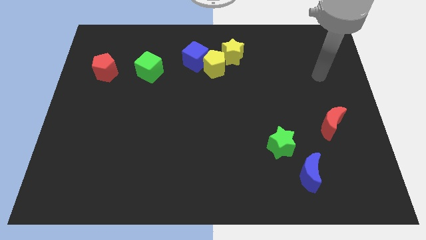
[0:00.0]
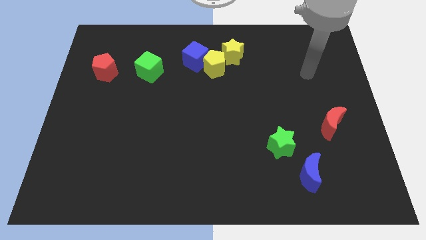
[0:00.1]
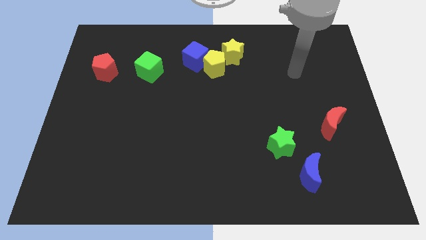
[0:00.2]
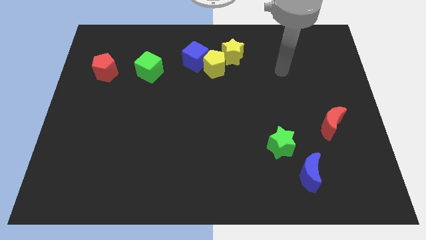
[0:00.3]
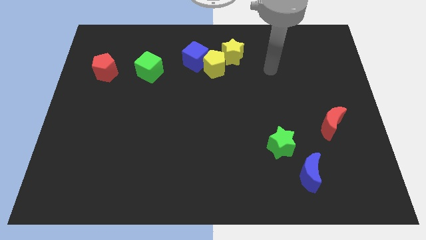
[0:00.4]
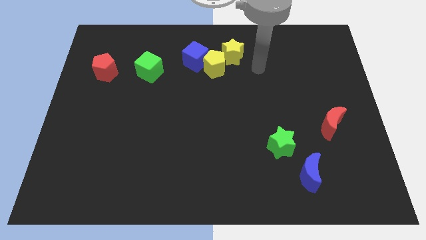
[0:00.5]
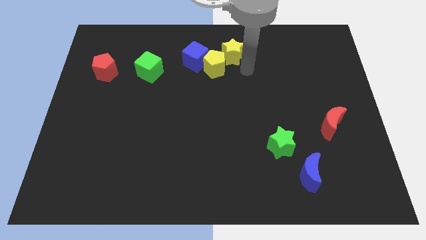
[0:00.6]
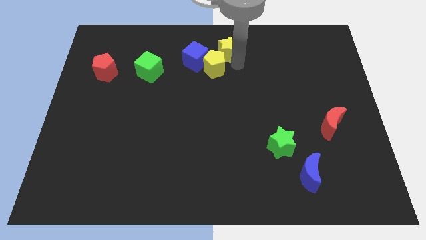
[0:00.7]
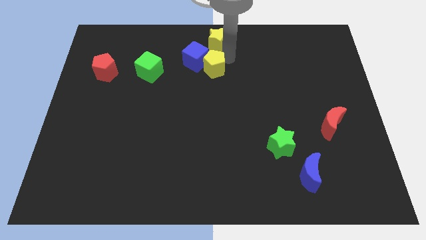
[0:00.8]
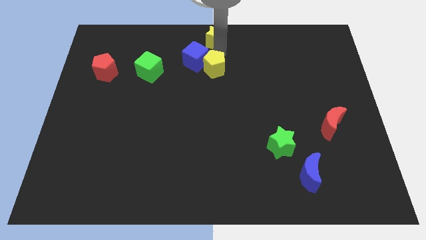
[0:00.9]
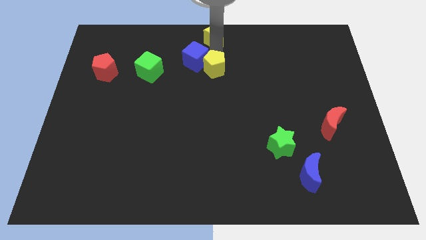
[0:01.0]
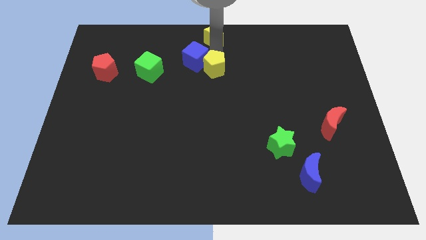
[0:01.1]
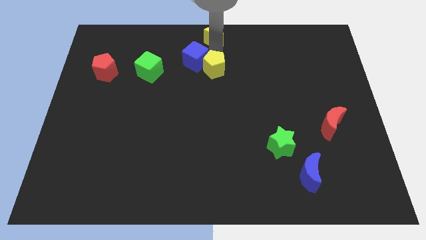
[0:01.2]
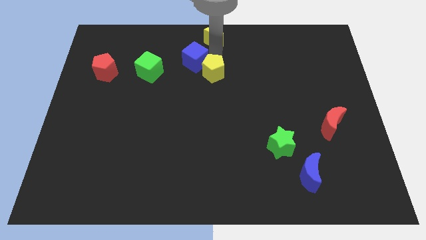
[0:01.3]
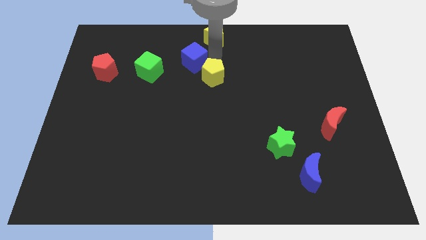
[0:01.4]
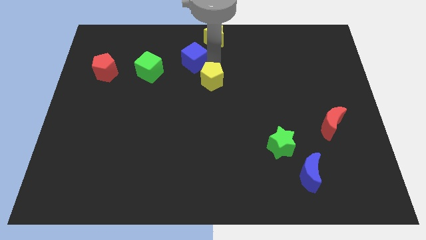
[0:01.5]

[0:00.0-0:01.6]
move the yellow pentagon away from the blue cube and yellow star

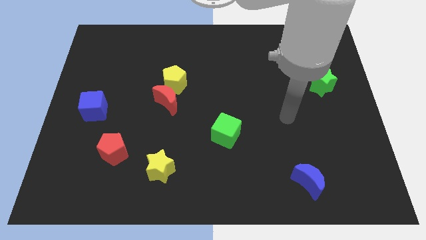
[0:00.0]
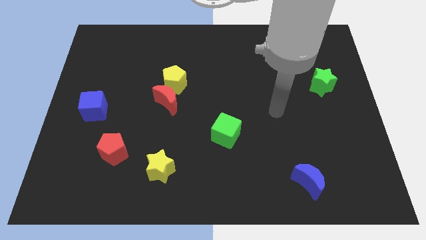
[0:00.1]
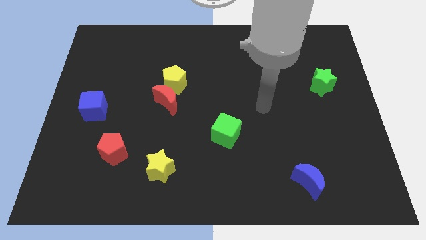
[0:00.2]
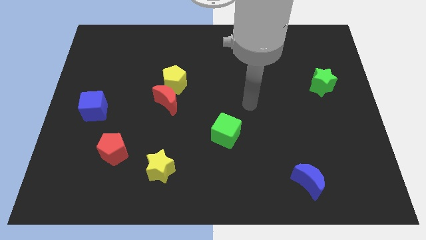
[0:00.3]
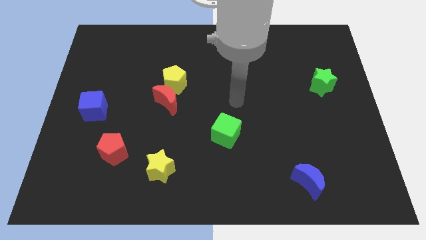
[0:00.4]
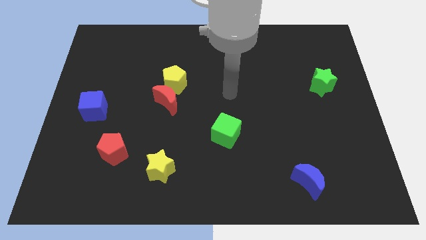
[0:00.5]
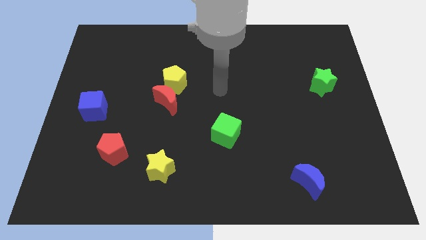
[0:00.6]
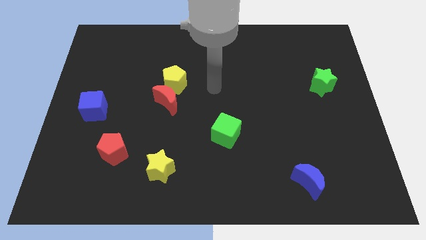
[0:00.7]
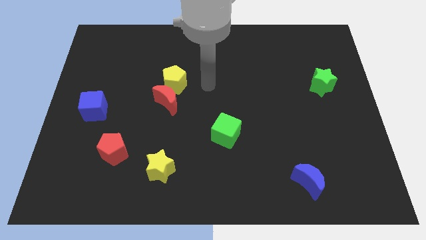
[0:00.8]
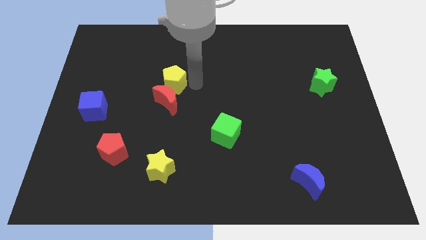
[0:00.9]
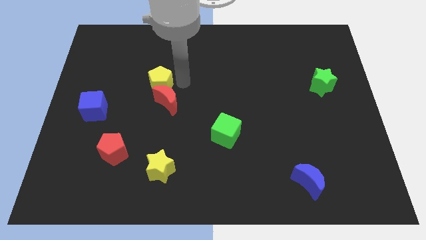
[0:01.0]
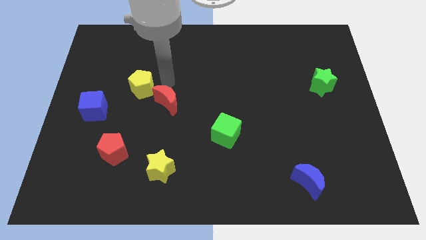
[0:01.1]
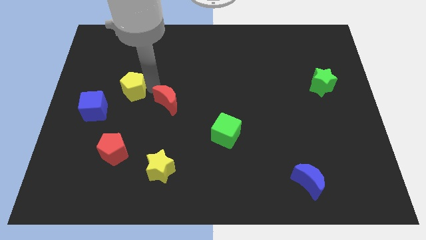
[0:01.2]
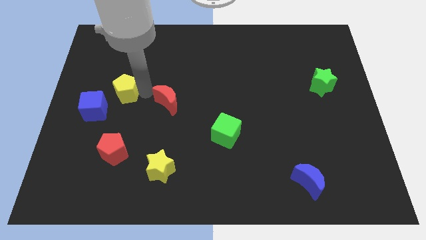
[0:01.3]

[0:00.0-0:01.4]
pull the red moon apart from the yellow pentagon

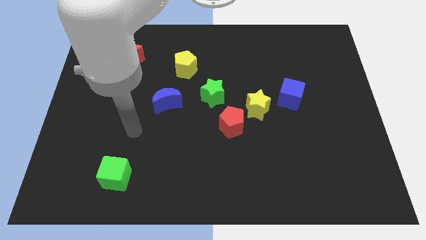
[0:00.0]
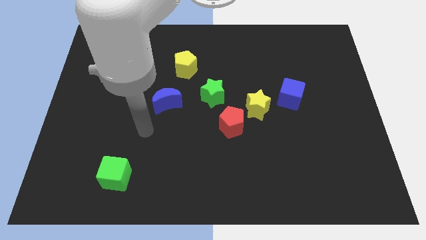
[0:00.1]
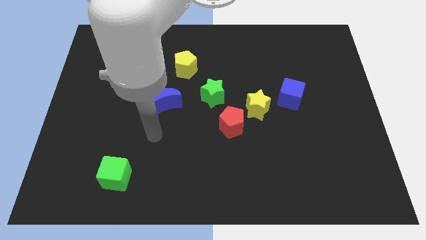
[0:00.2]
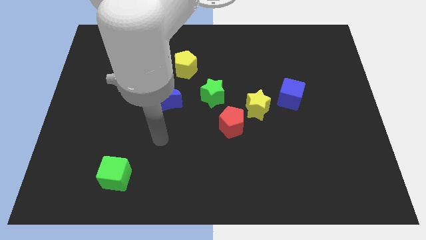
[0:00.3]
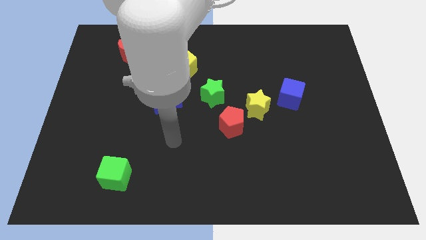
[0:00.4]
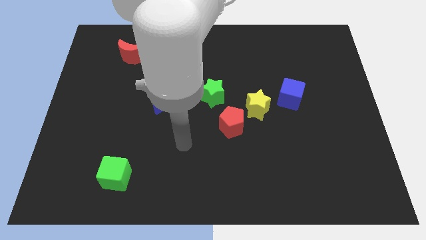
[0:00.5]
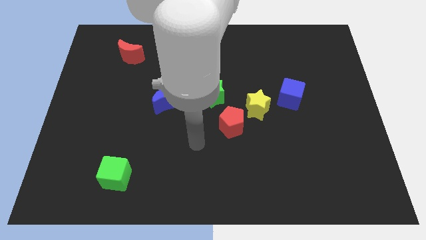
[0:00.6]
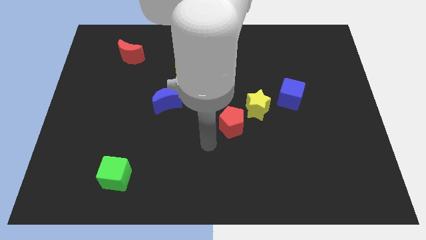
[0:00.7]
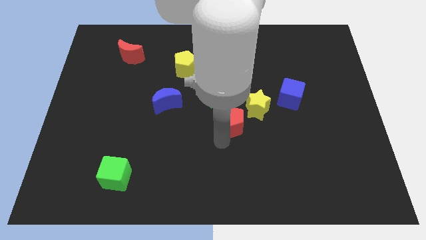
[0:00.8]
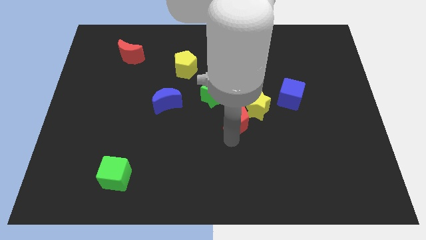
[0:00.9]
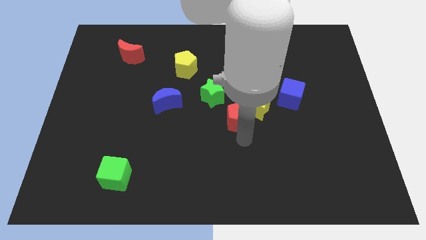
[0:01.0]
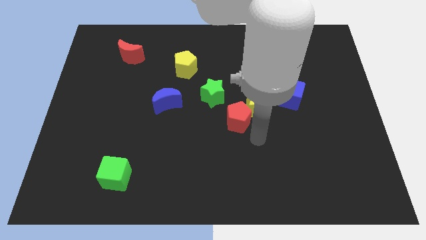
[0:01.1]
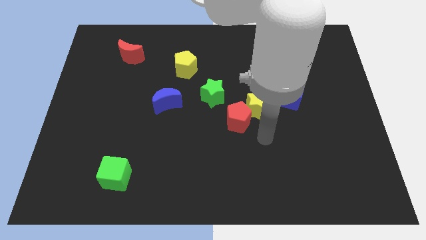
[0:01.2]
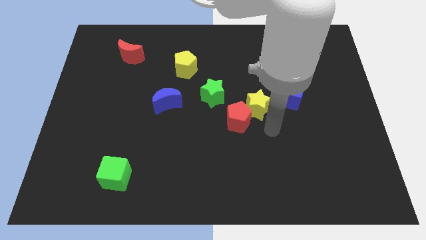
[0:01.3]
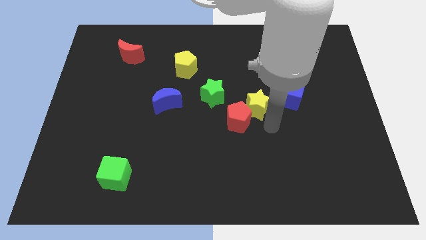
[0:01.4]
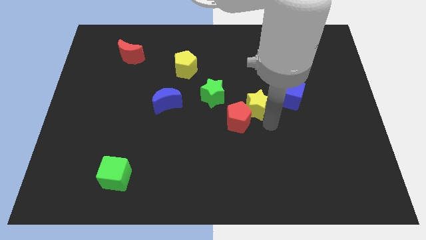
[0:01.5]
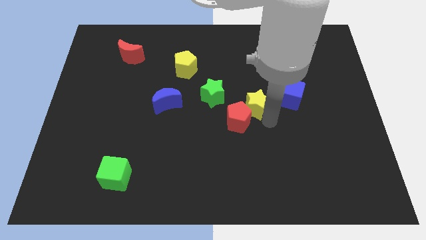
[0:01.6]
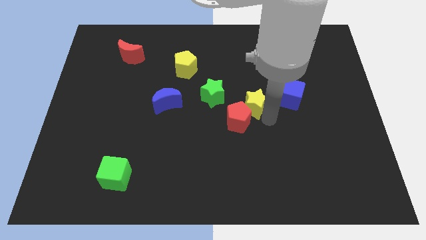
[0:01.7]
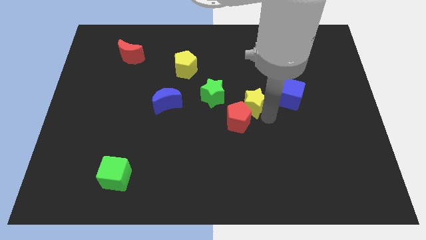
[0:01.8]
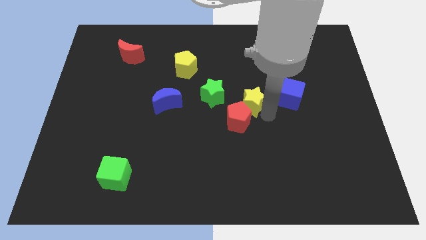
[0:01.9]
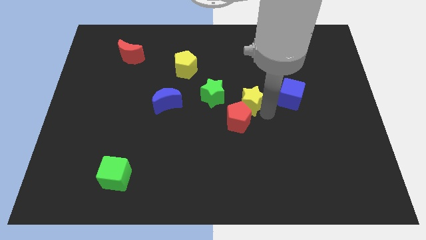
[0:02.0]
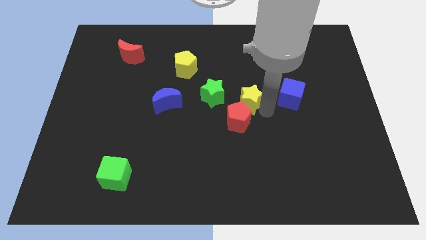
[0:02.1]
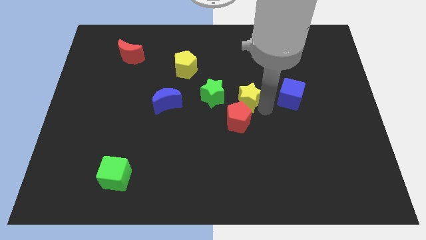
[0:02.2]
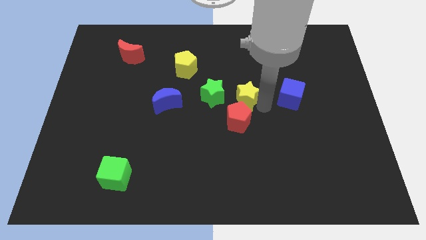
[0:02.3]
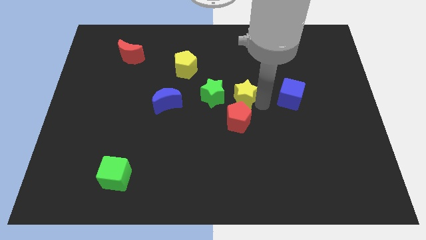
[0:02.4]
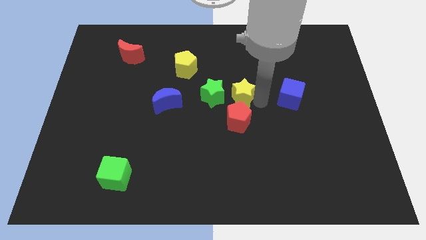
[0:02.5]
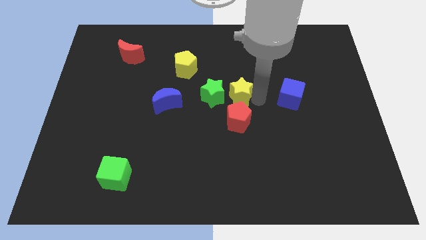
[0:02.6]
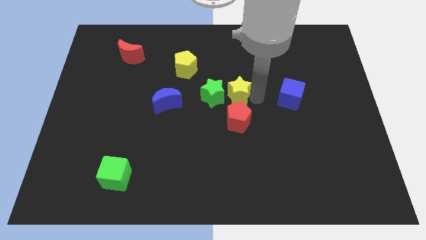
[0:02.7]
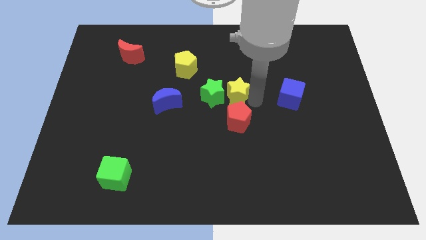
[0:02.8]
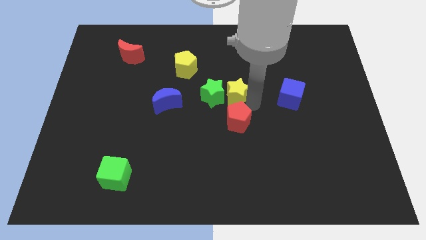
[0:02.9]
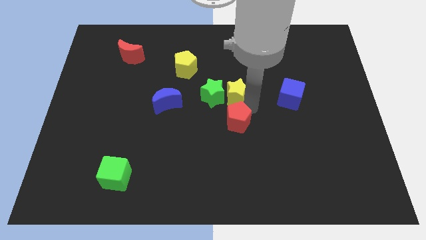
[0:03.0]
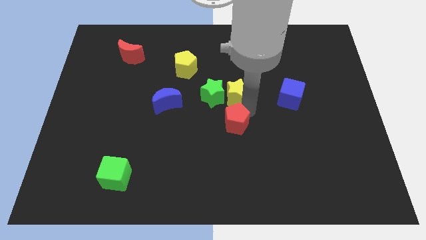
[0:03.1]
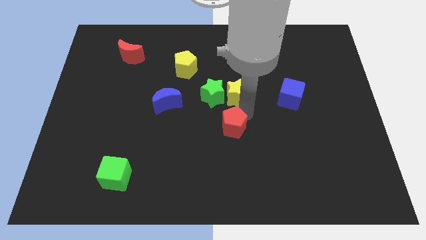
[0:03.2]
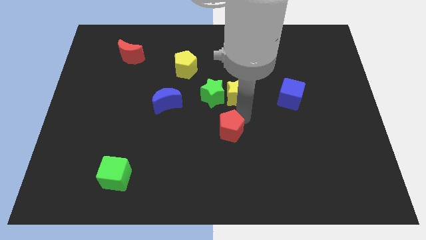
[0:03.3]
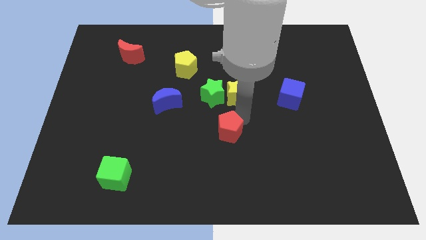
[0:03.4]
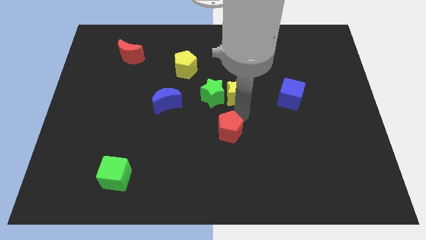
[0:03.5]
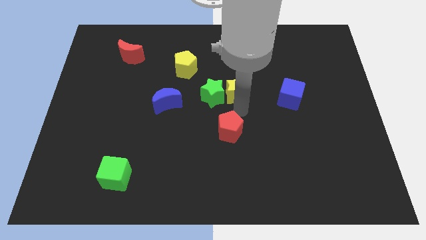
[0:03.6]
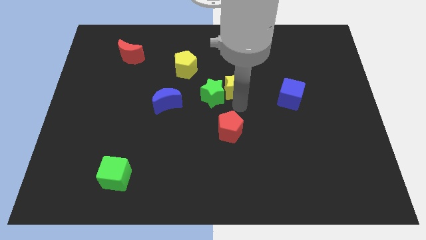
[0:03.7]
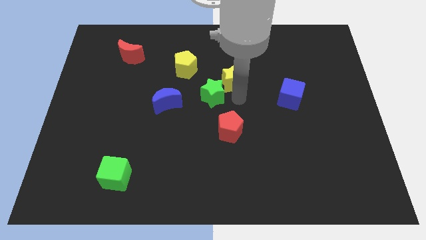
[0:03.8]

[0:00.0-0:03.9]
separate the yellow star from the red pentagon and blue cube

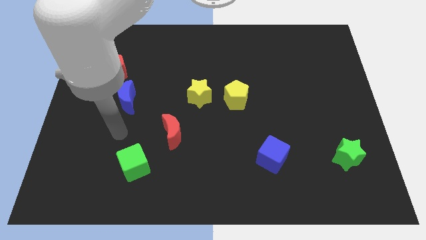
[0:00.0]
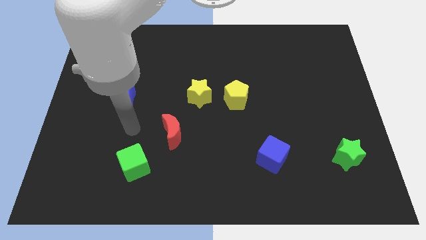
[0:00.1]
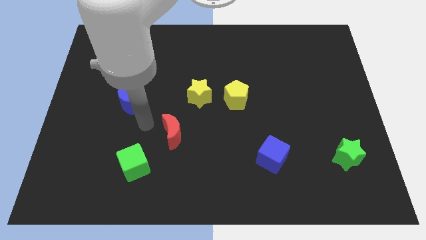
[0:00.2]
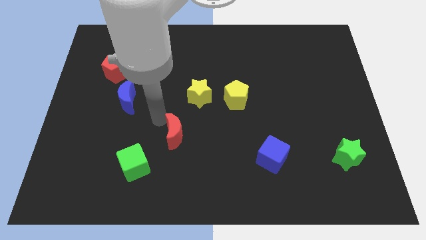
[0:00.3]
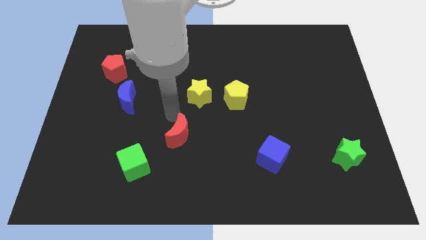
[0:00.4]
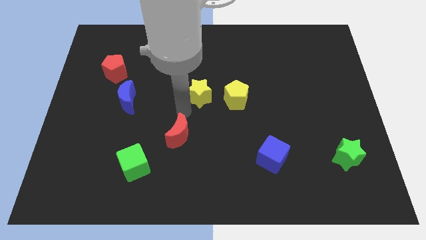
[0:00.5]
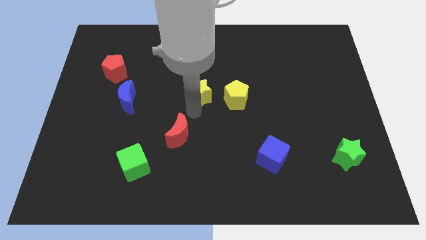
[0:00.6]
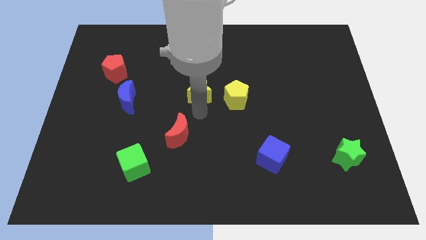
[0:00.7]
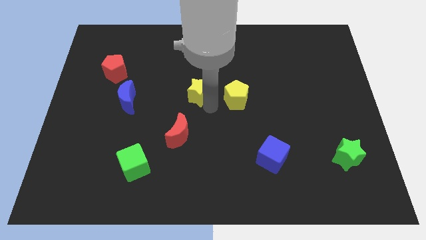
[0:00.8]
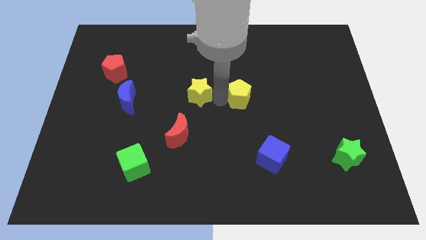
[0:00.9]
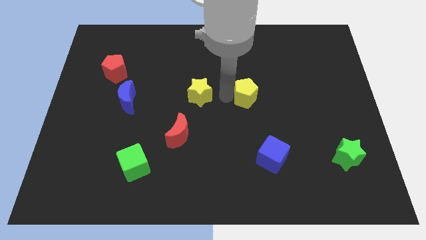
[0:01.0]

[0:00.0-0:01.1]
move the yellow star away from the yellow pentagon

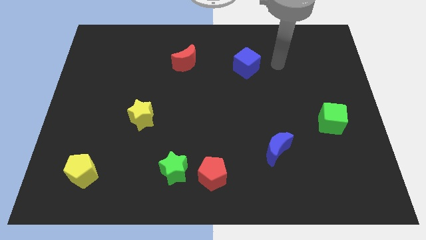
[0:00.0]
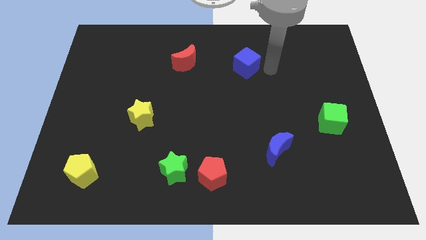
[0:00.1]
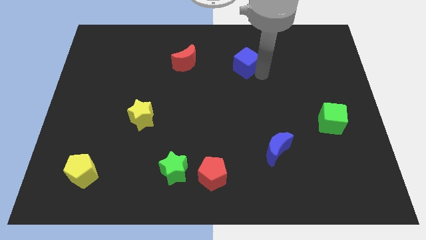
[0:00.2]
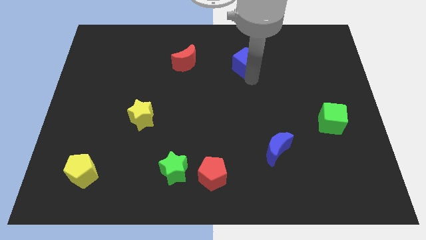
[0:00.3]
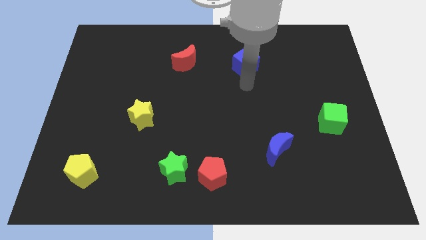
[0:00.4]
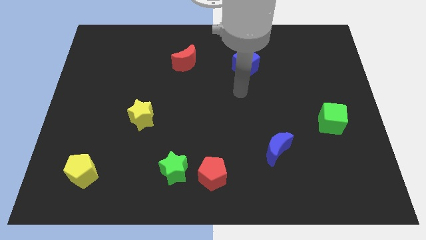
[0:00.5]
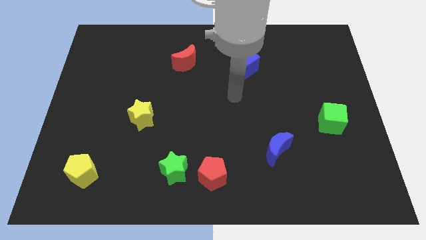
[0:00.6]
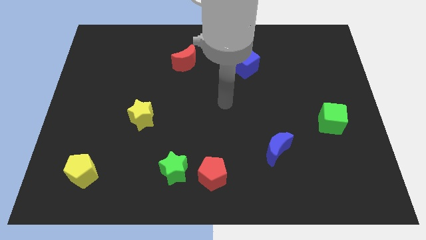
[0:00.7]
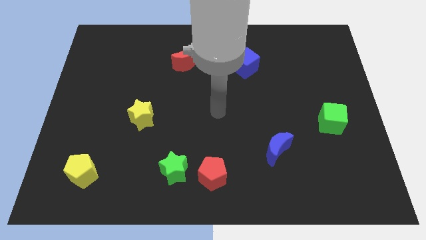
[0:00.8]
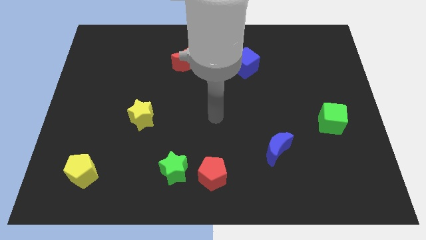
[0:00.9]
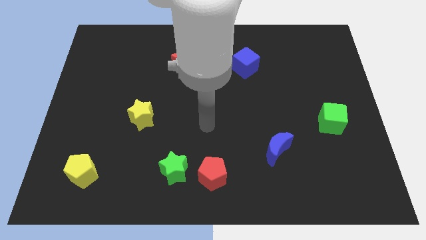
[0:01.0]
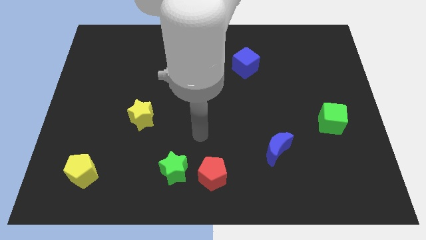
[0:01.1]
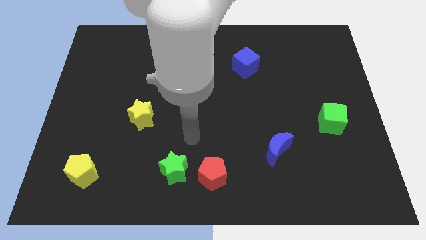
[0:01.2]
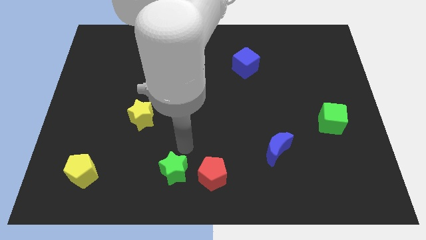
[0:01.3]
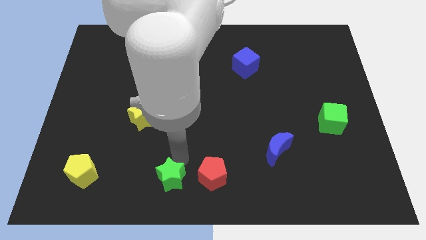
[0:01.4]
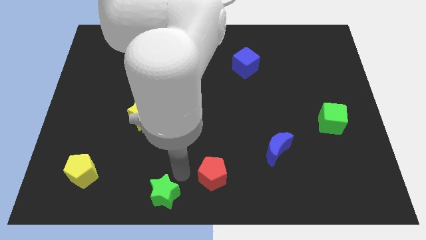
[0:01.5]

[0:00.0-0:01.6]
separate the red pentagon from the green star
